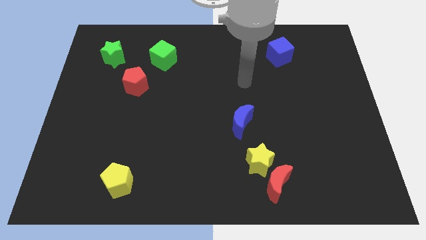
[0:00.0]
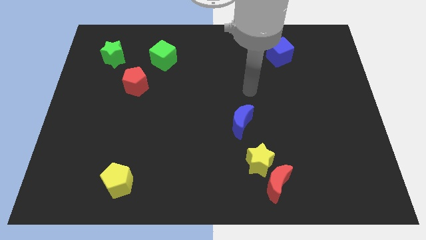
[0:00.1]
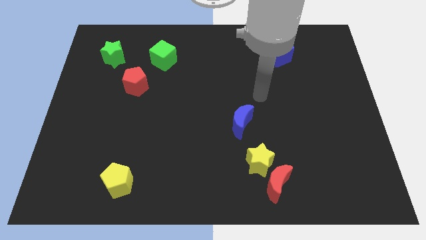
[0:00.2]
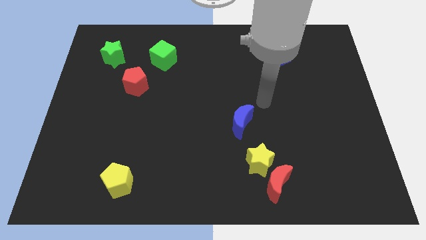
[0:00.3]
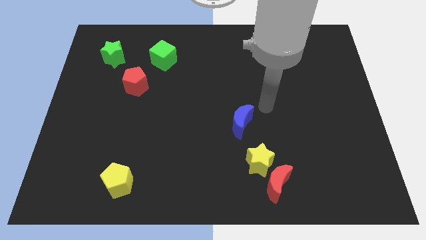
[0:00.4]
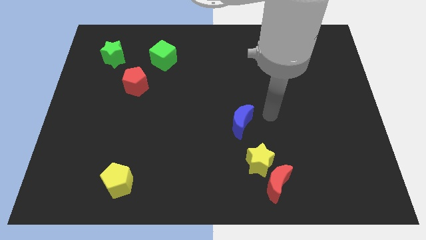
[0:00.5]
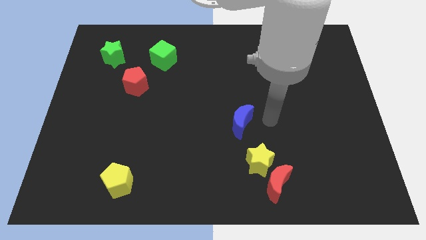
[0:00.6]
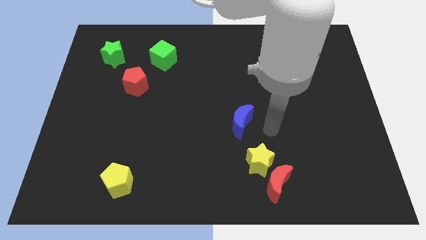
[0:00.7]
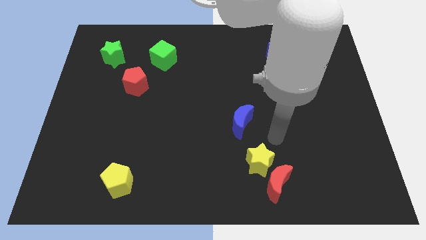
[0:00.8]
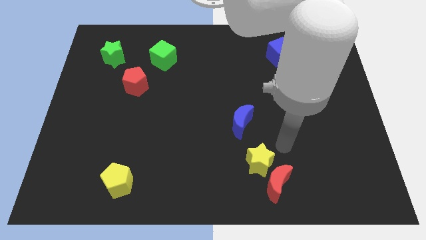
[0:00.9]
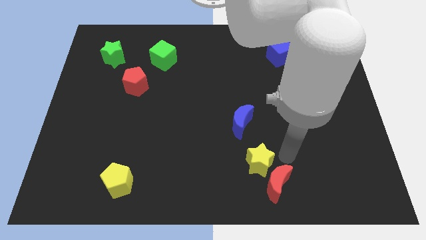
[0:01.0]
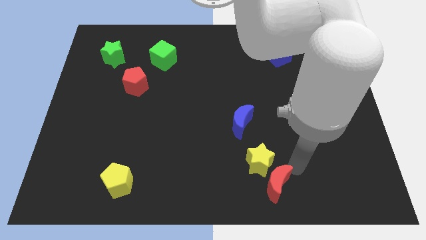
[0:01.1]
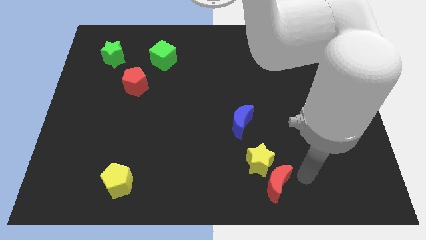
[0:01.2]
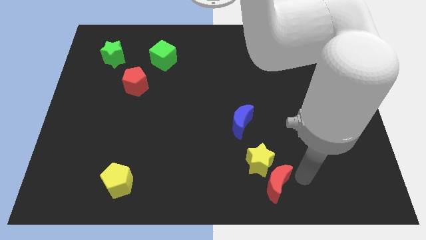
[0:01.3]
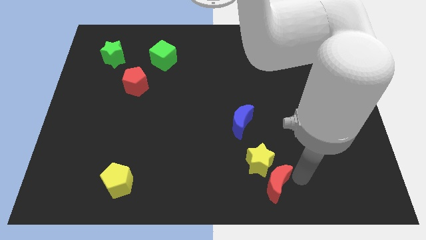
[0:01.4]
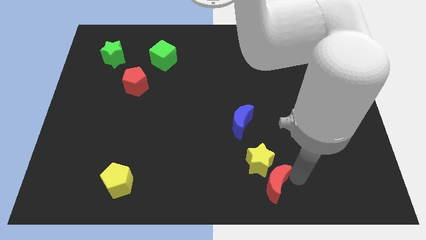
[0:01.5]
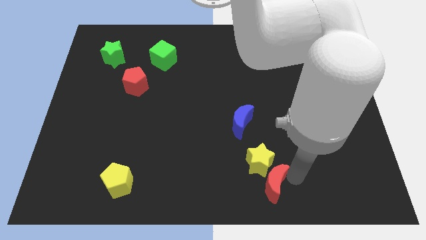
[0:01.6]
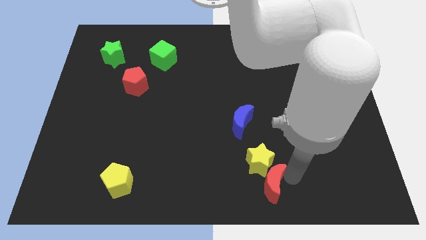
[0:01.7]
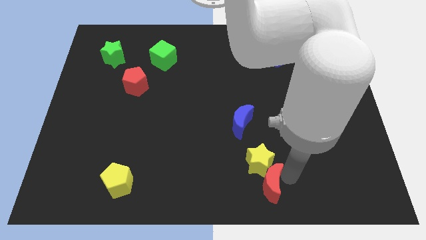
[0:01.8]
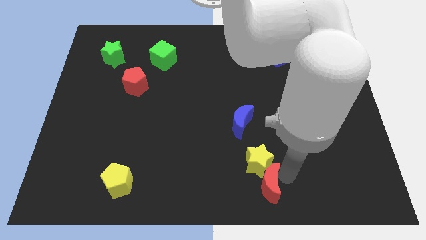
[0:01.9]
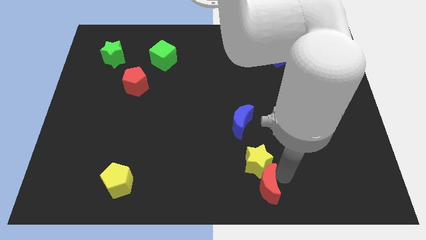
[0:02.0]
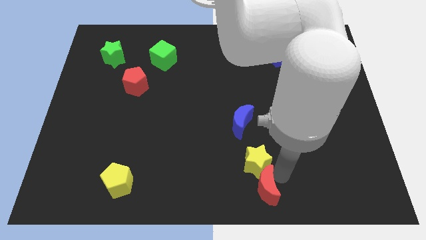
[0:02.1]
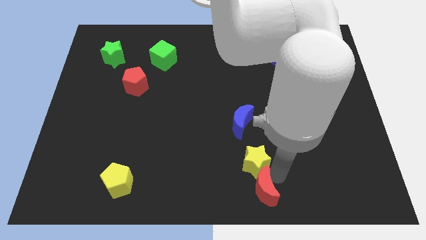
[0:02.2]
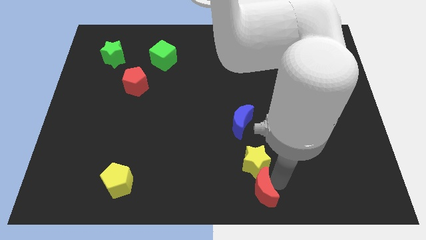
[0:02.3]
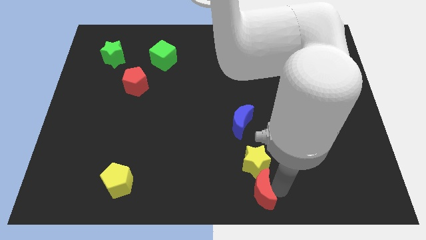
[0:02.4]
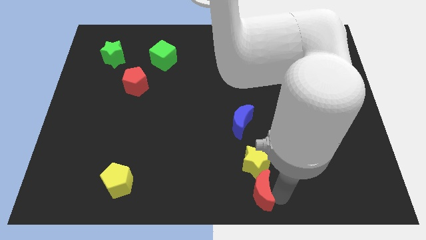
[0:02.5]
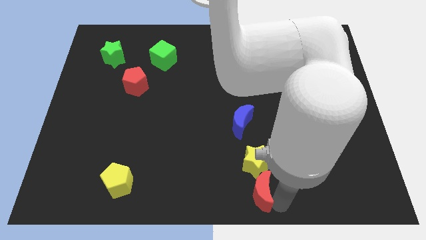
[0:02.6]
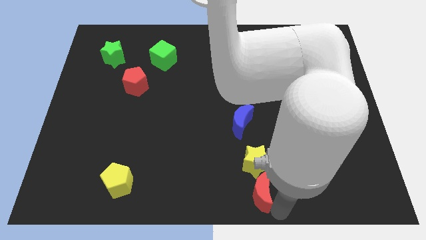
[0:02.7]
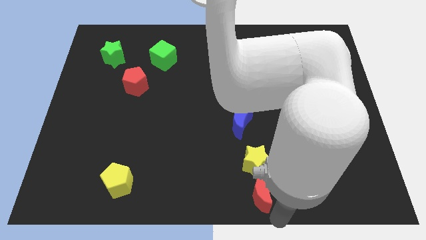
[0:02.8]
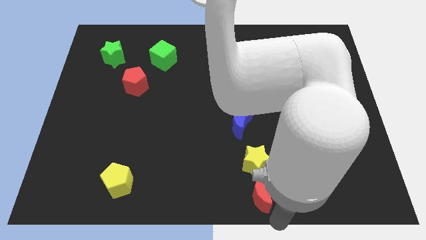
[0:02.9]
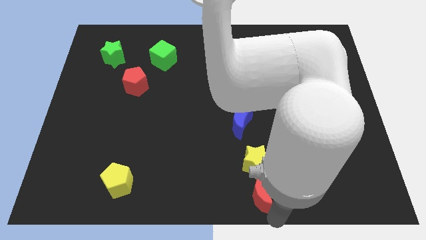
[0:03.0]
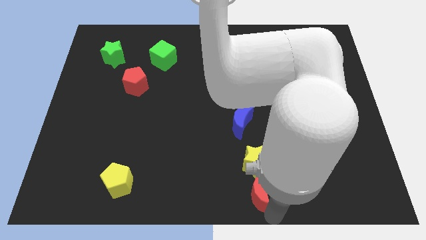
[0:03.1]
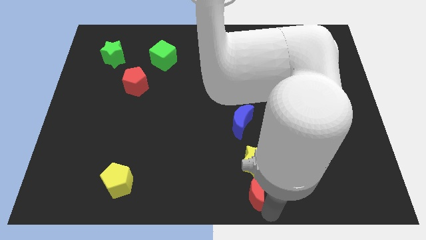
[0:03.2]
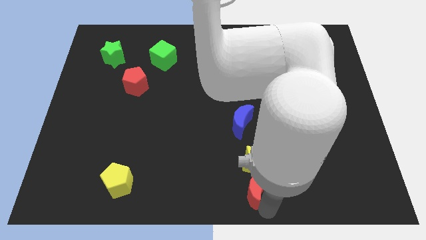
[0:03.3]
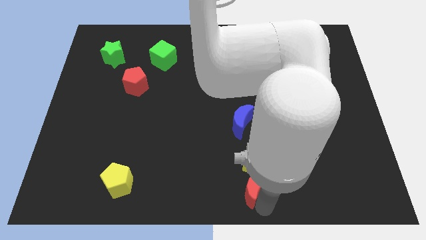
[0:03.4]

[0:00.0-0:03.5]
slide the red moon below the blue moon

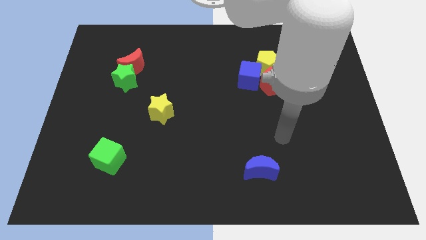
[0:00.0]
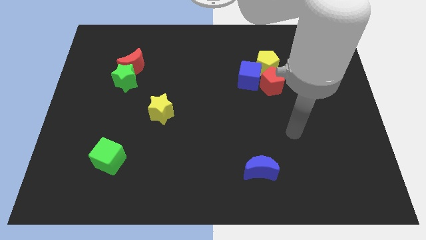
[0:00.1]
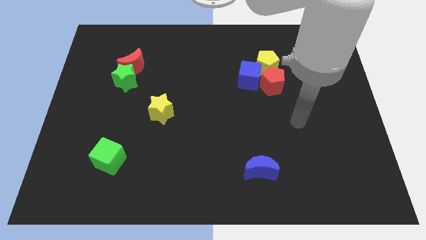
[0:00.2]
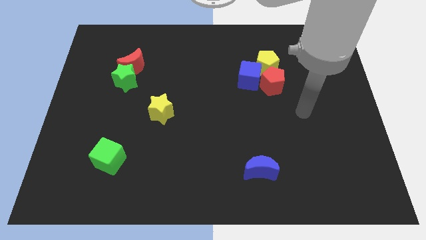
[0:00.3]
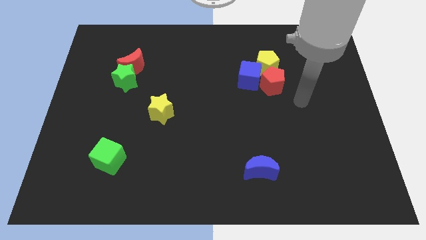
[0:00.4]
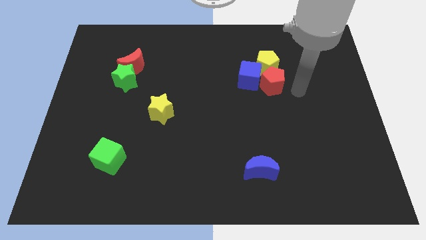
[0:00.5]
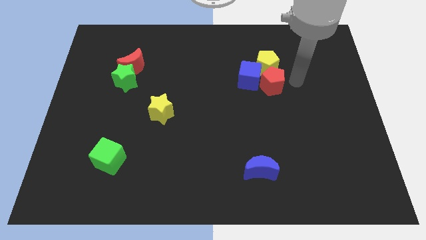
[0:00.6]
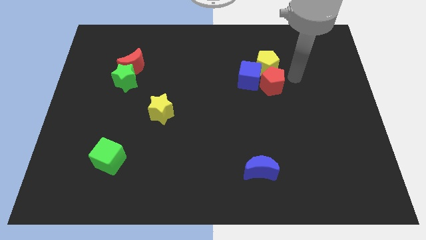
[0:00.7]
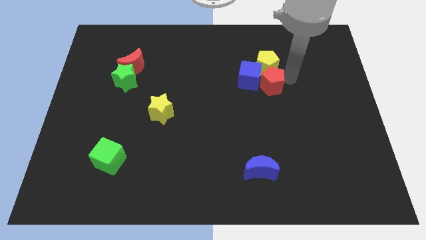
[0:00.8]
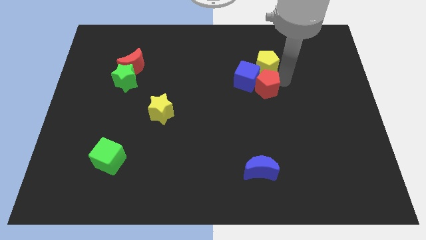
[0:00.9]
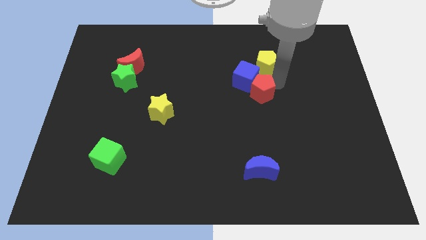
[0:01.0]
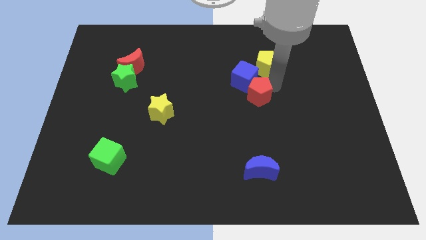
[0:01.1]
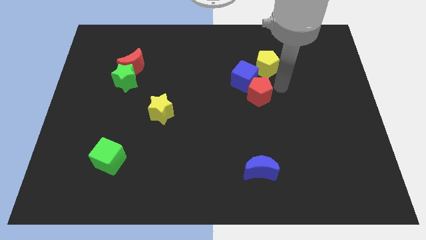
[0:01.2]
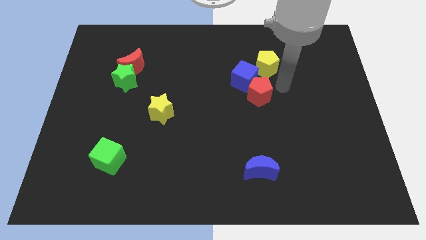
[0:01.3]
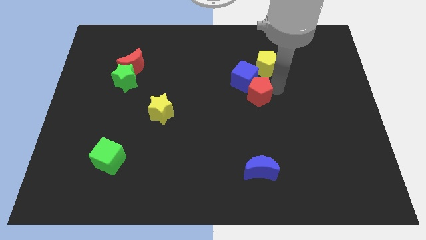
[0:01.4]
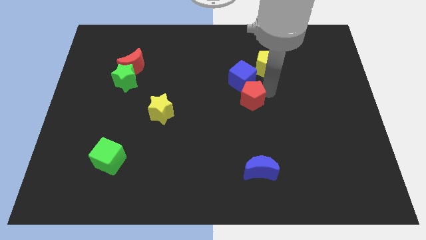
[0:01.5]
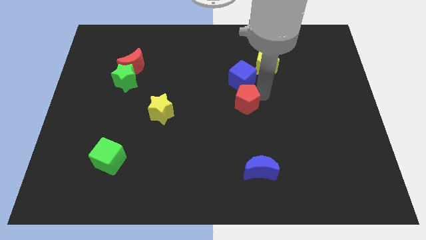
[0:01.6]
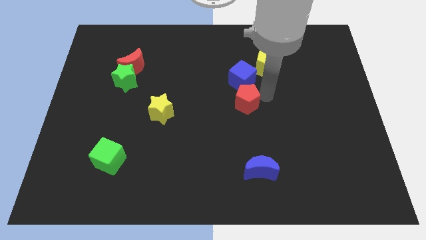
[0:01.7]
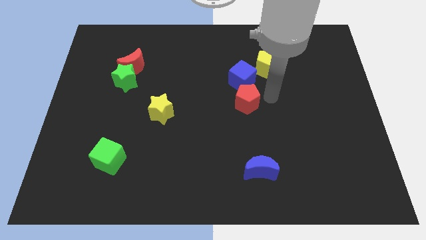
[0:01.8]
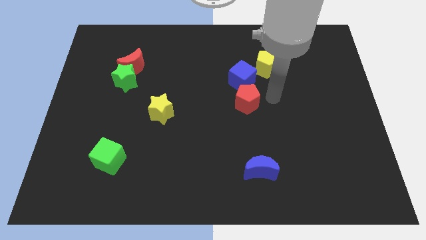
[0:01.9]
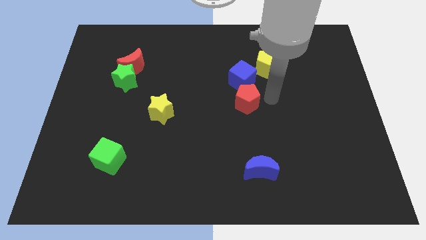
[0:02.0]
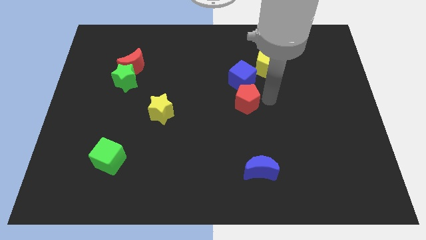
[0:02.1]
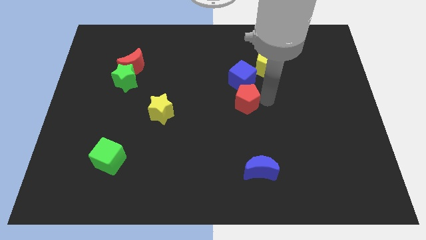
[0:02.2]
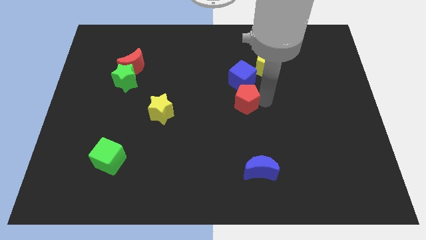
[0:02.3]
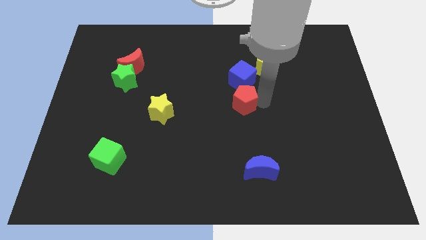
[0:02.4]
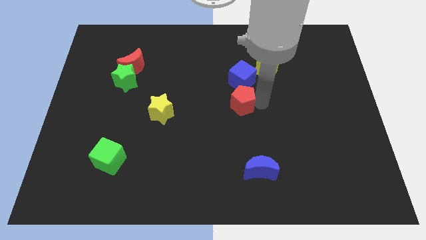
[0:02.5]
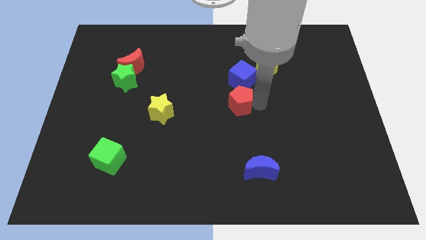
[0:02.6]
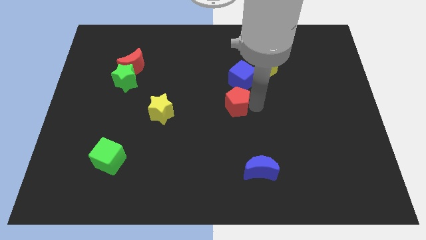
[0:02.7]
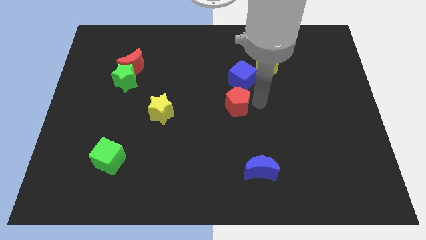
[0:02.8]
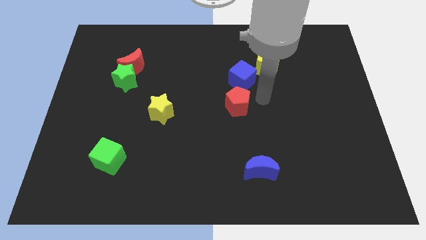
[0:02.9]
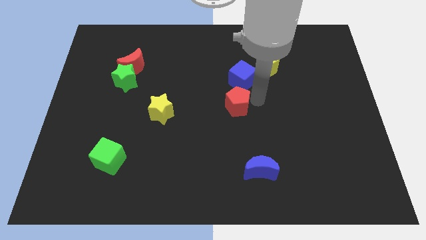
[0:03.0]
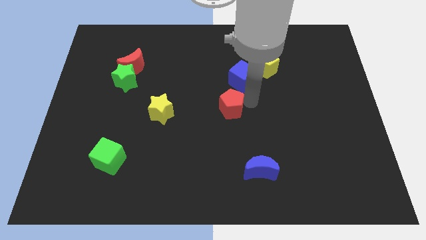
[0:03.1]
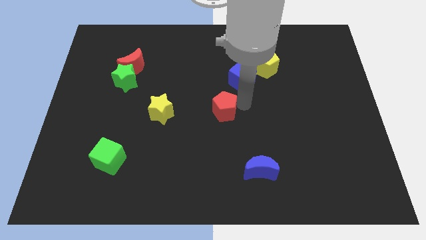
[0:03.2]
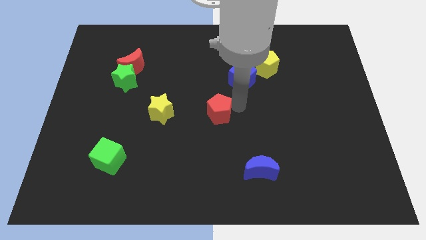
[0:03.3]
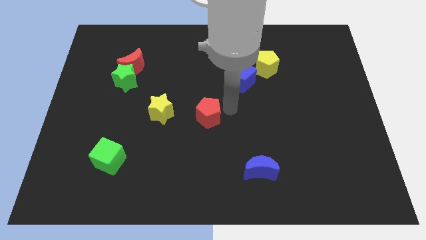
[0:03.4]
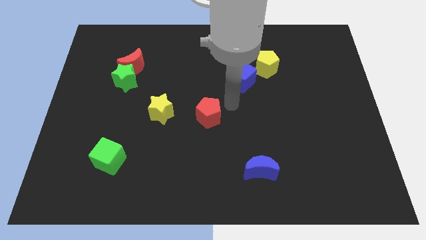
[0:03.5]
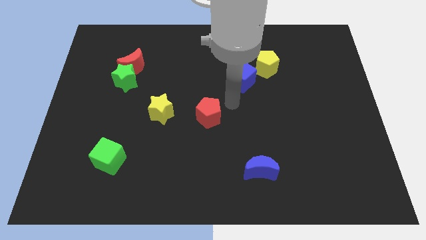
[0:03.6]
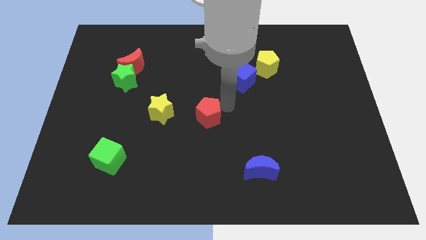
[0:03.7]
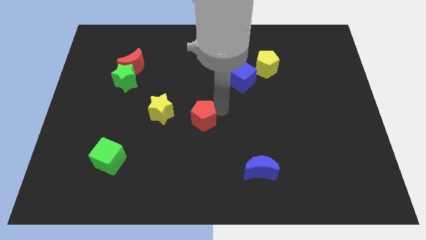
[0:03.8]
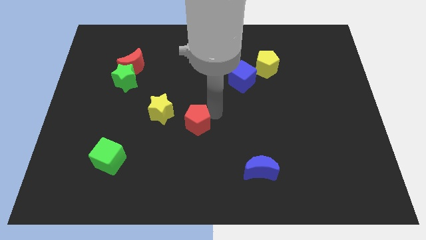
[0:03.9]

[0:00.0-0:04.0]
put the red pentagon to the bottom right of the yellow star
